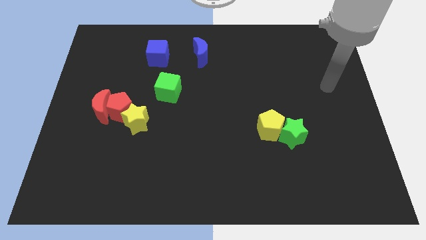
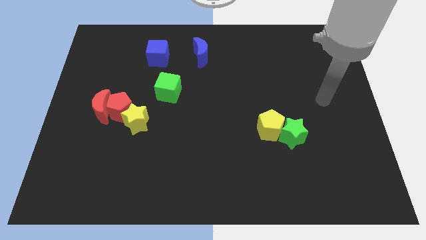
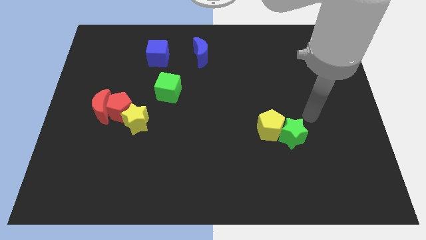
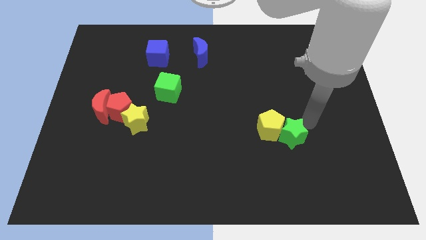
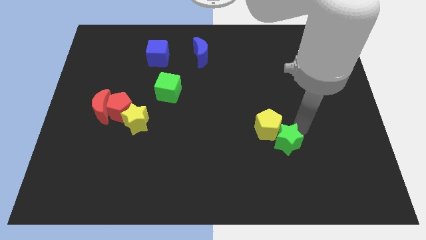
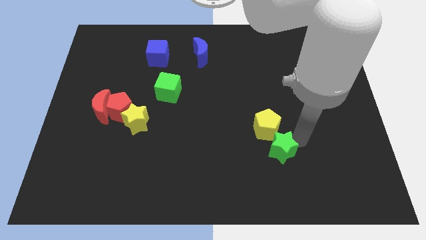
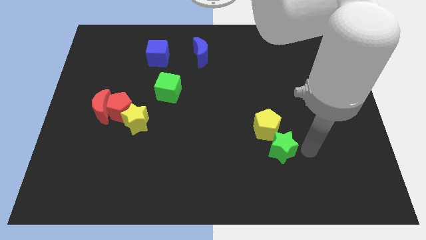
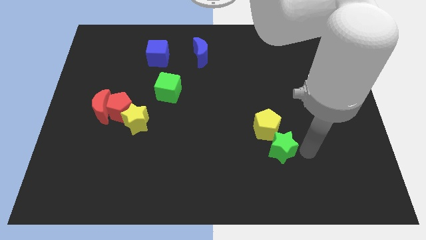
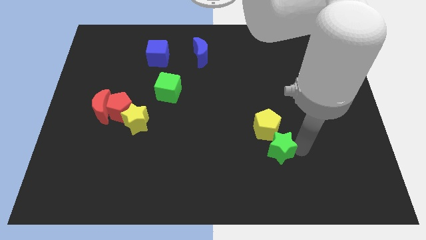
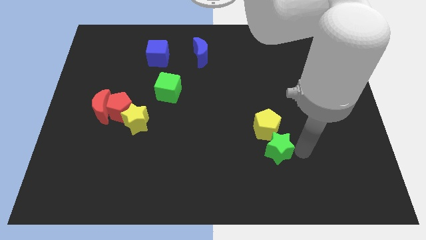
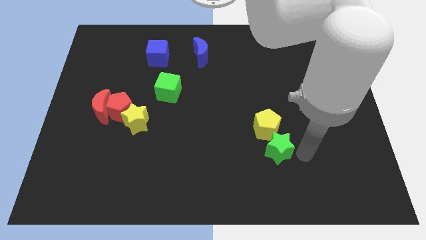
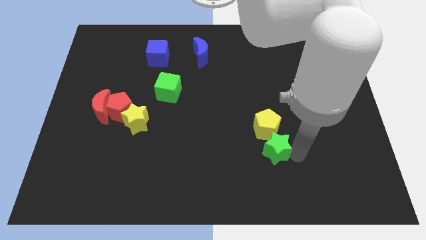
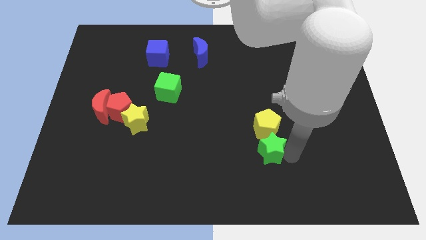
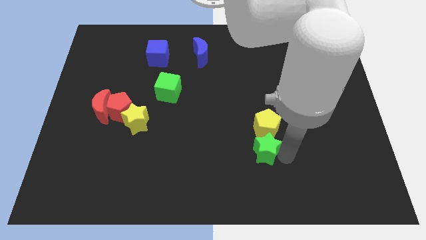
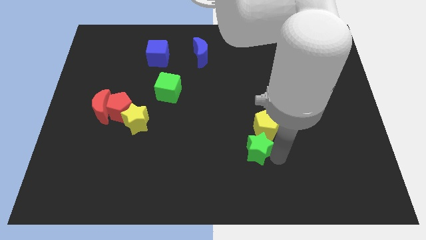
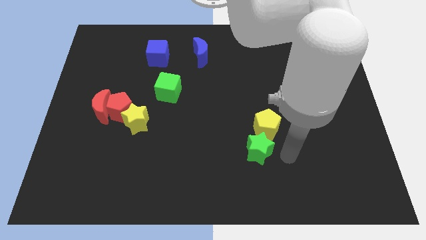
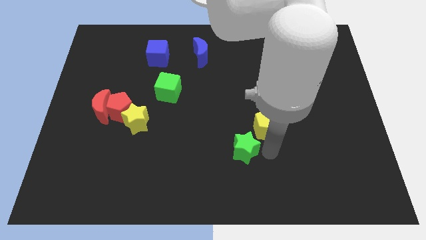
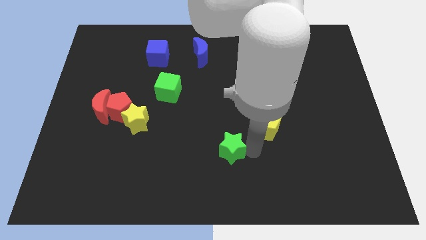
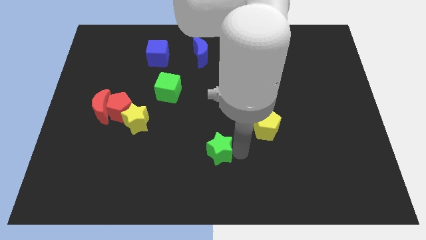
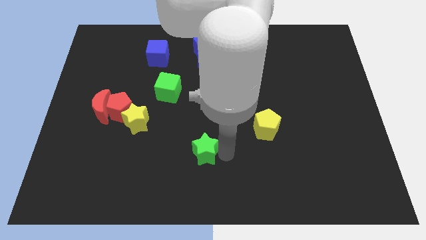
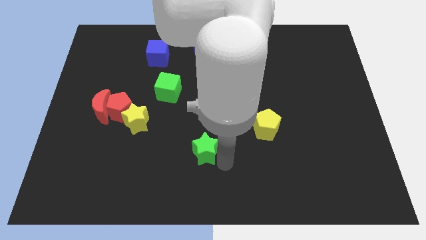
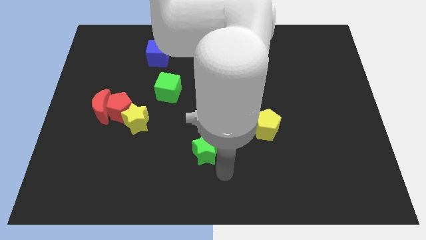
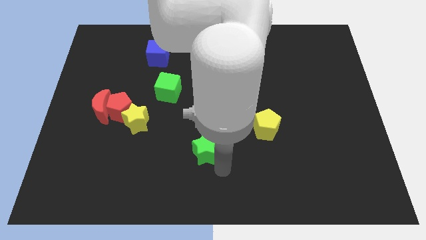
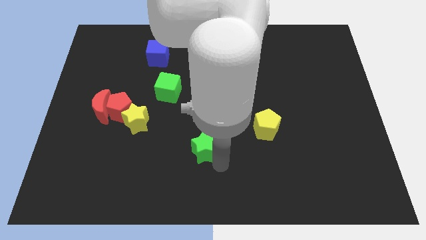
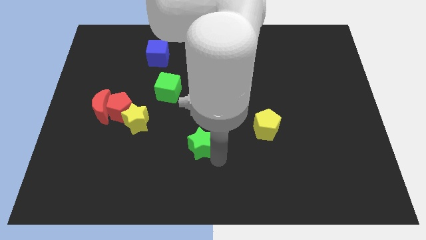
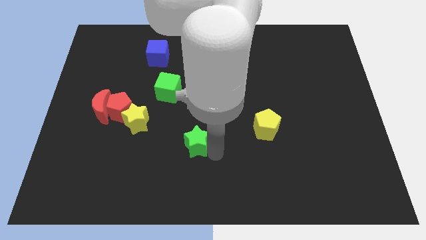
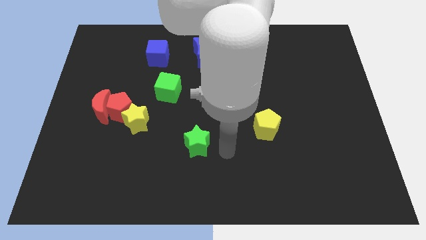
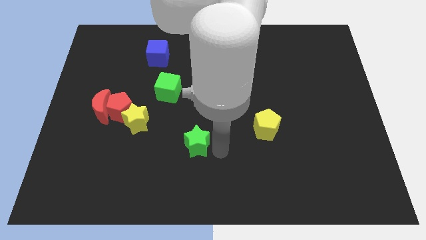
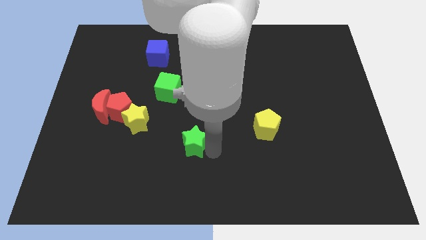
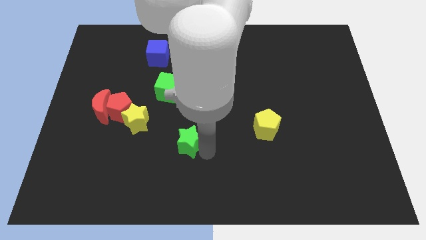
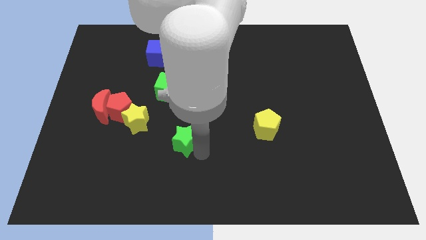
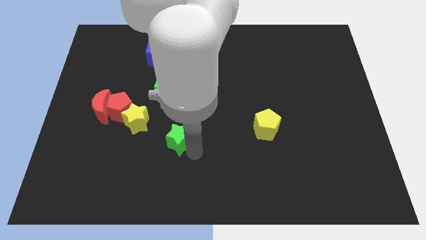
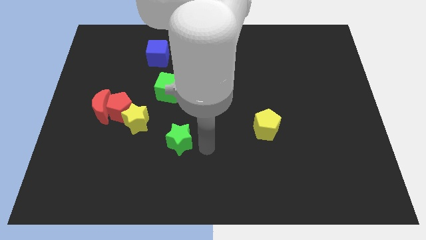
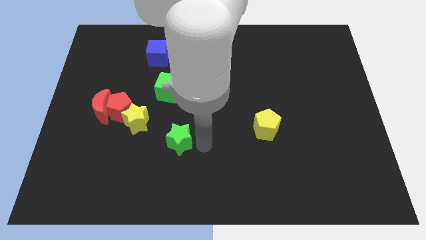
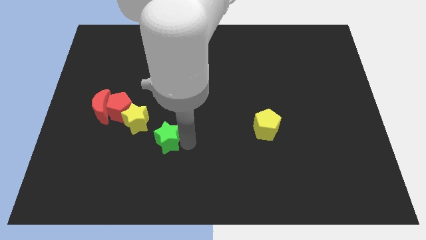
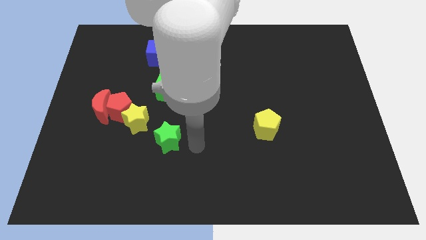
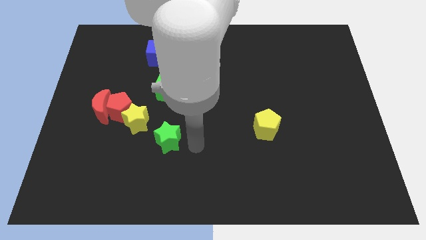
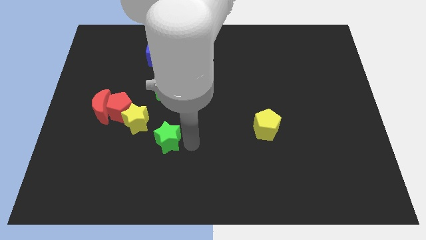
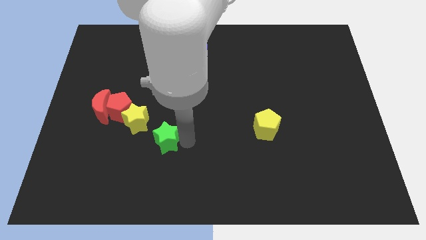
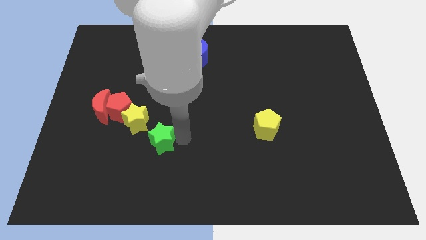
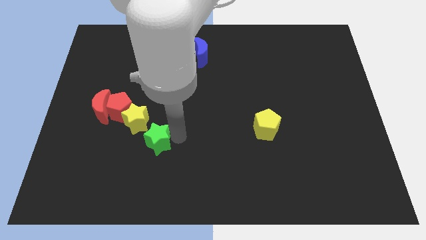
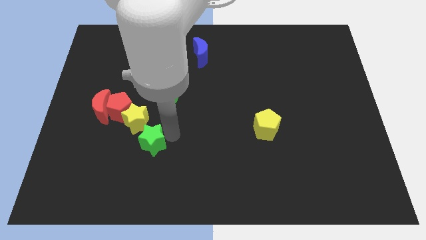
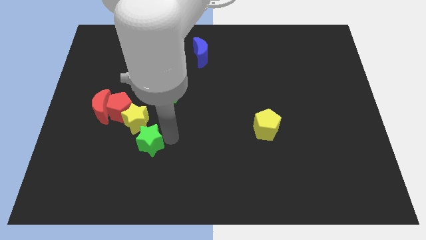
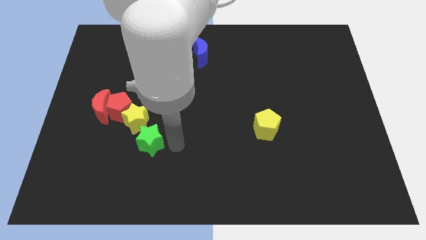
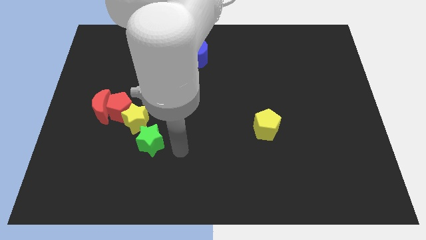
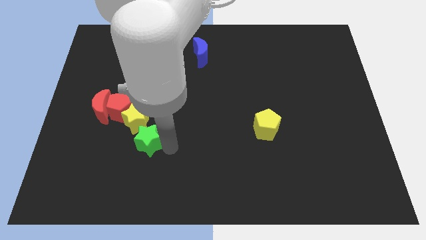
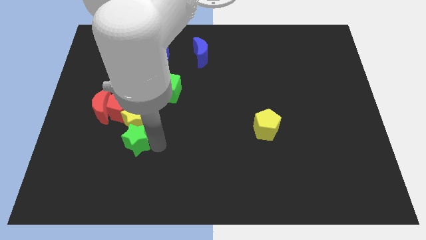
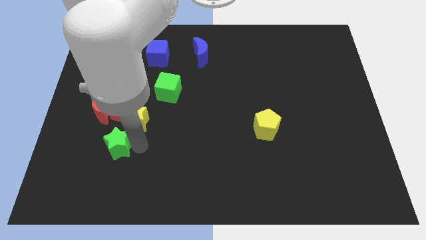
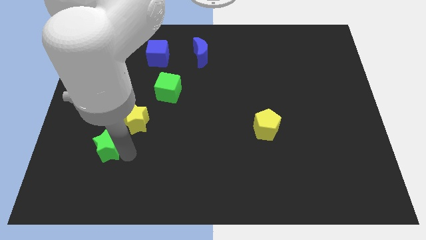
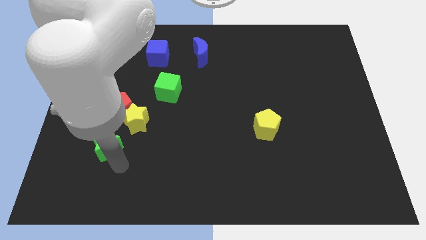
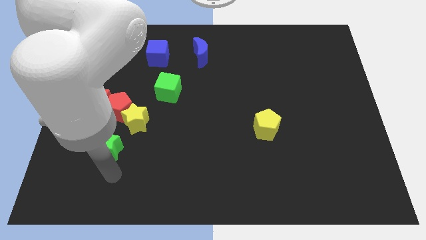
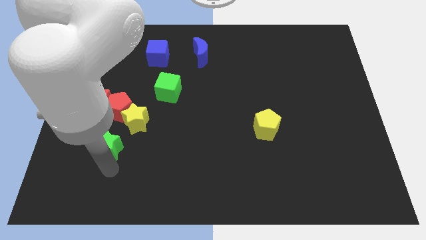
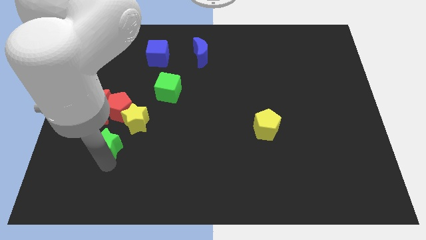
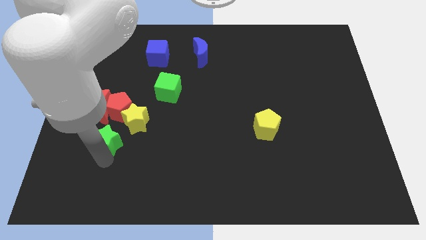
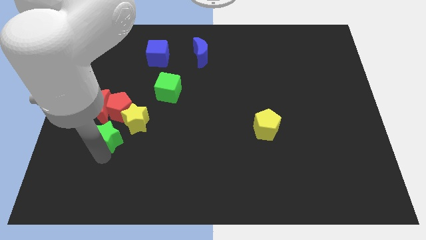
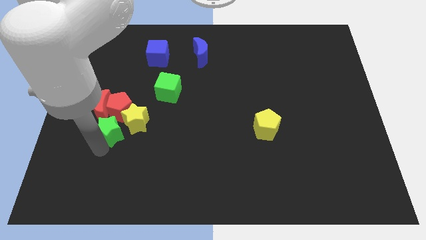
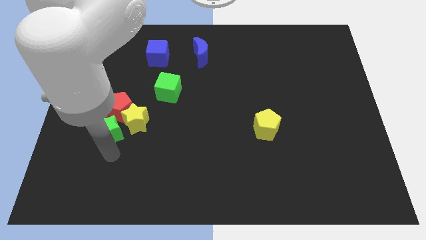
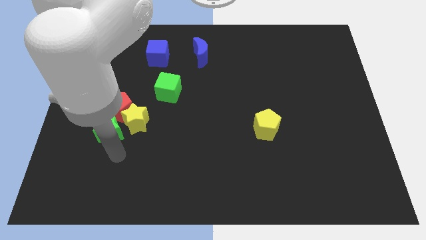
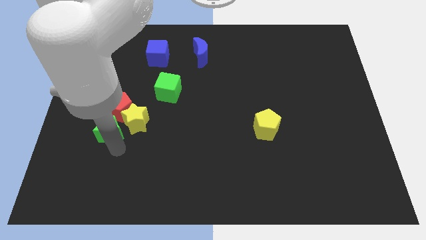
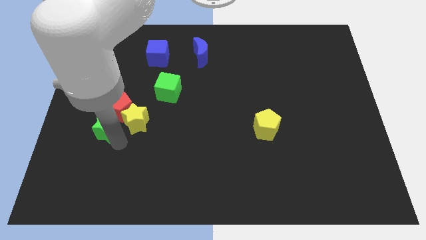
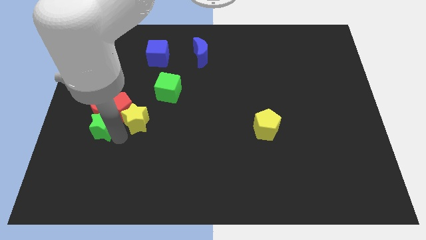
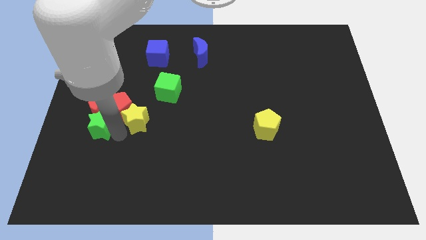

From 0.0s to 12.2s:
put the green star close to the red moon

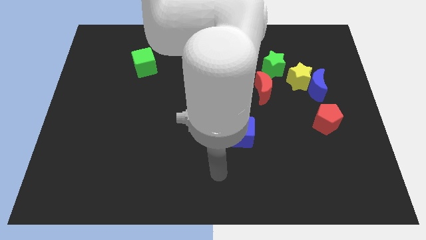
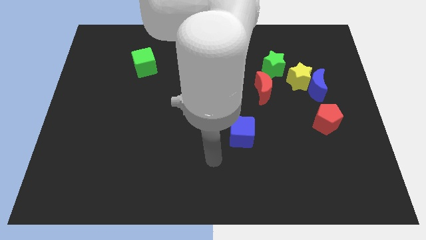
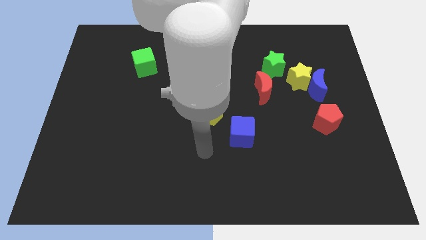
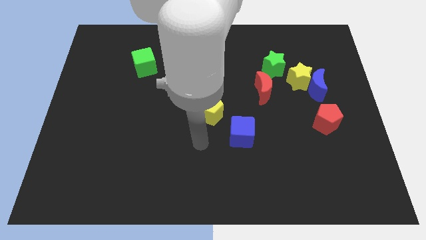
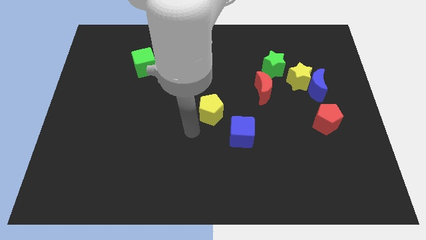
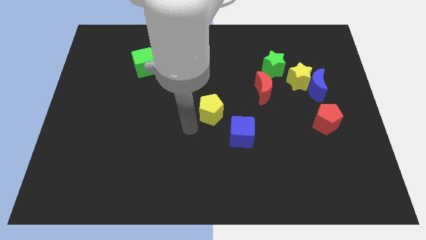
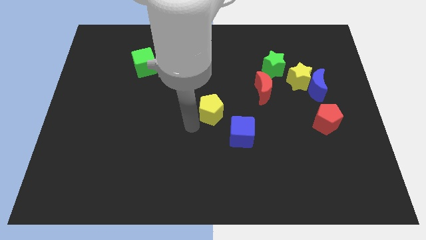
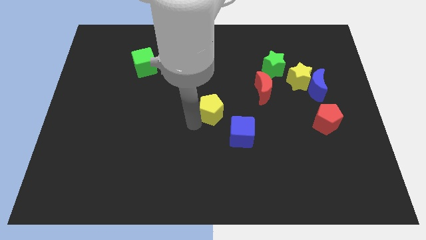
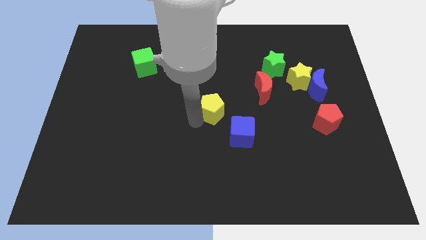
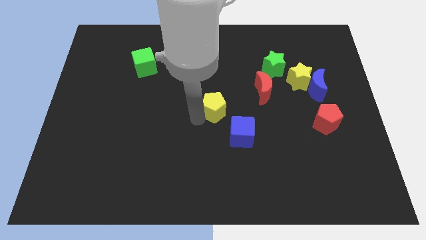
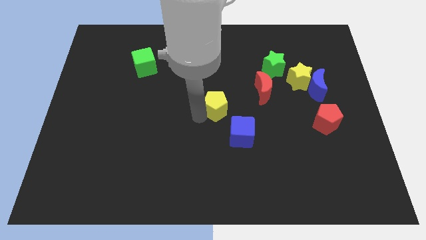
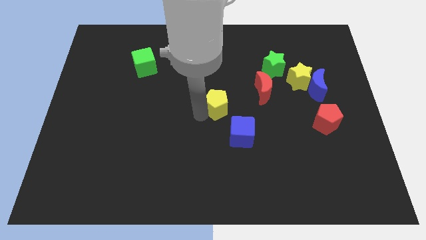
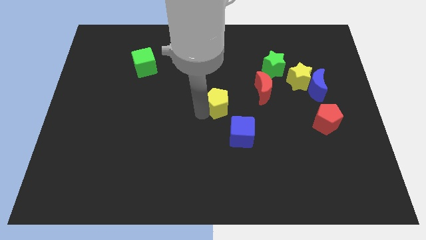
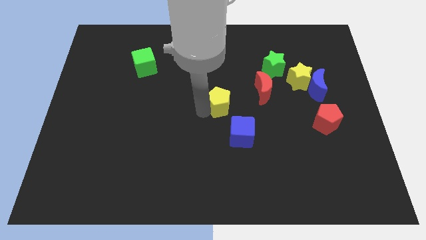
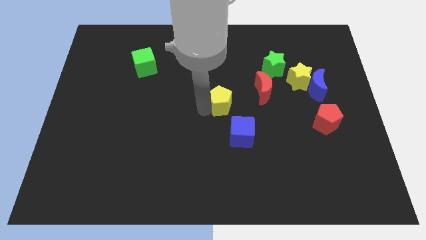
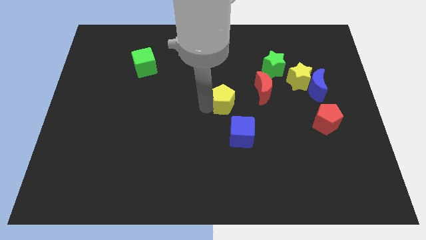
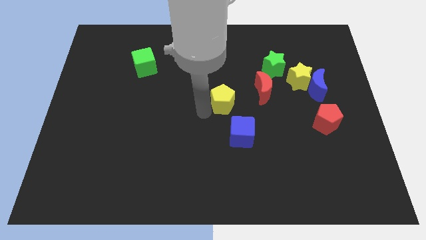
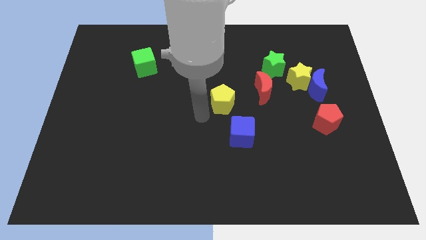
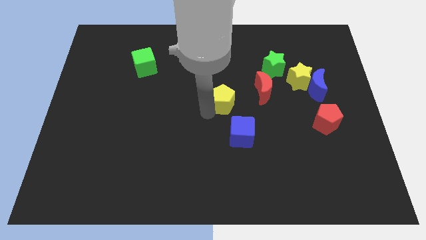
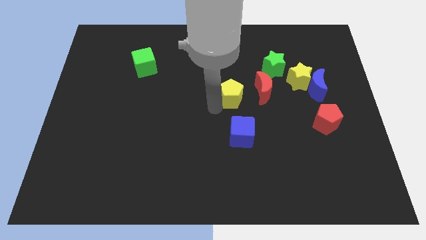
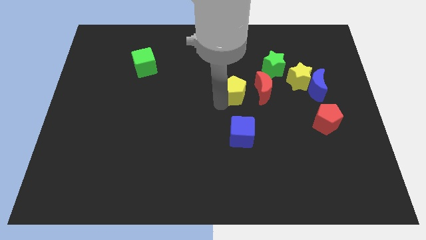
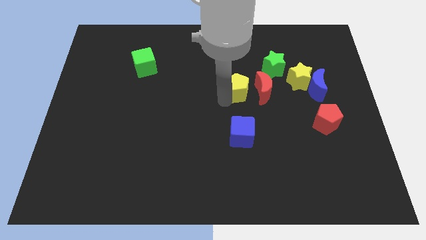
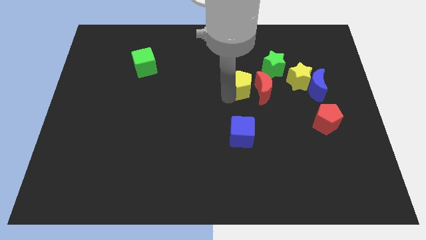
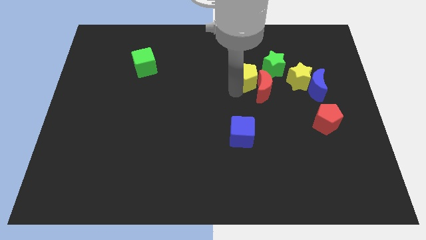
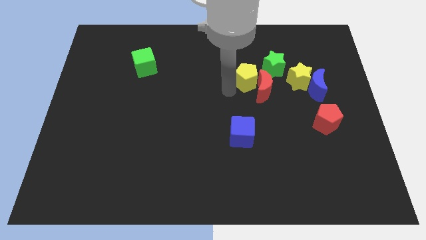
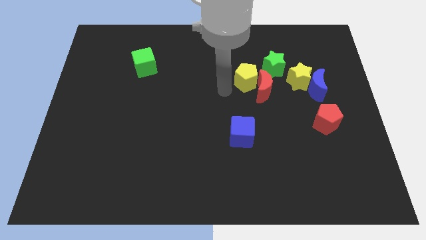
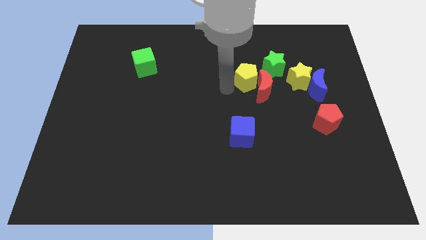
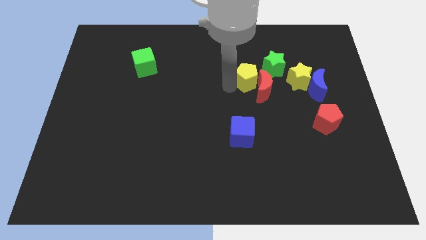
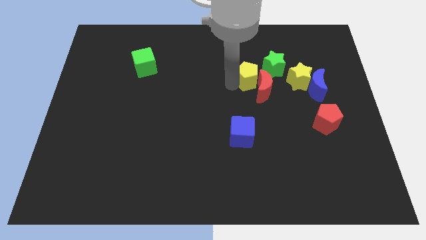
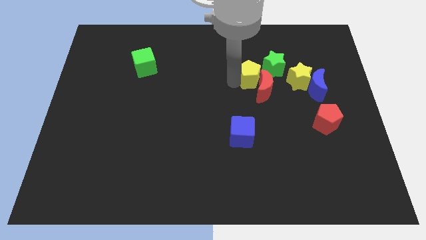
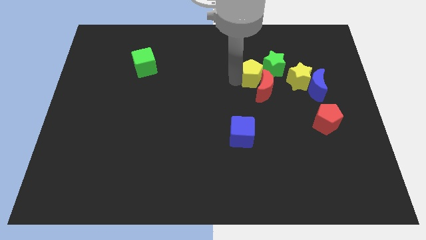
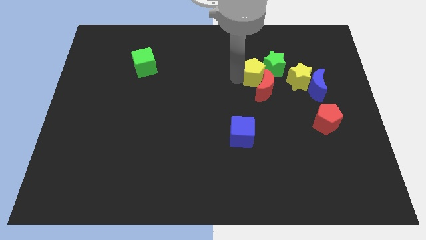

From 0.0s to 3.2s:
put the yellow pentagon next to the green star
